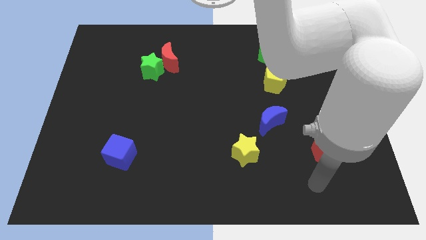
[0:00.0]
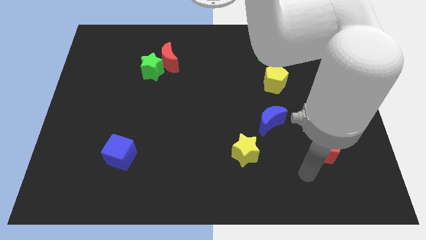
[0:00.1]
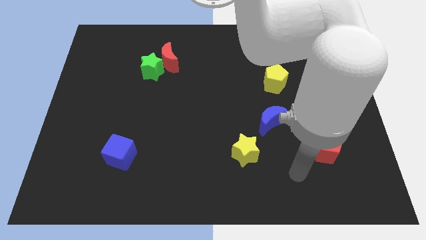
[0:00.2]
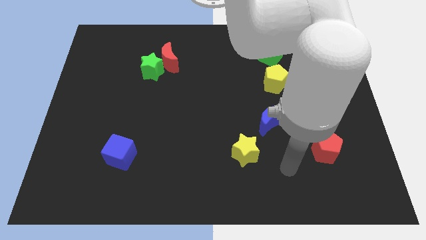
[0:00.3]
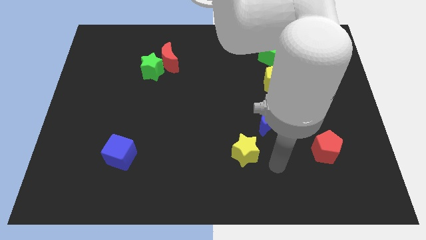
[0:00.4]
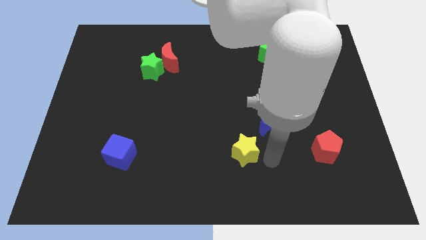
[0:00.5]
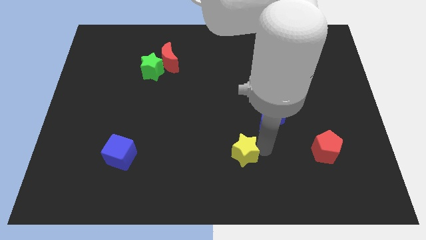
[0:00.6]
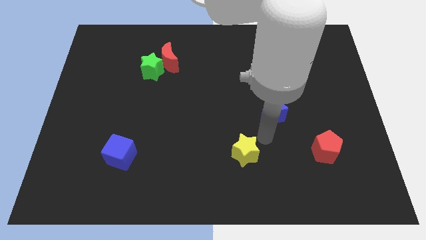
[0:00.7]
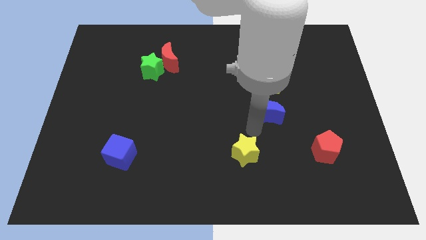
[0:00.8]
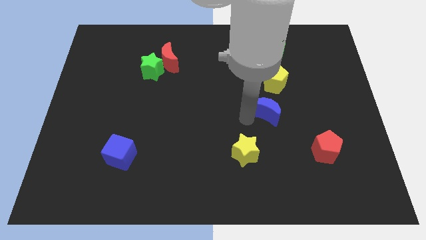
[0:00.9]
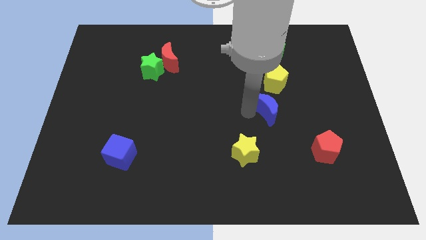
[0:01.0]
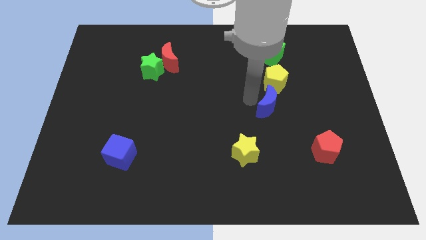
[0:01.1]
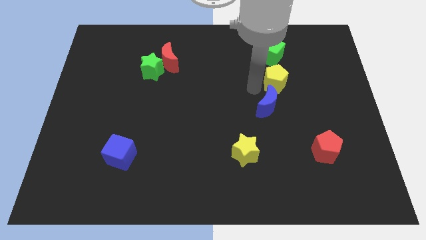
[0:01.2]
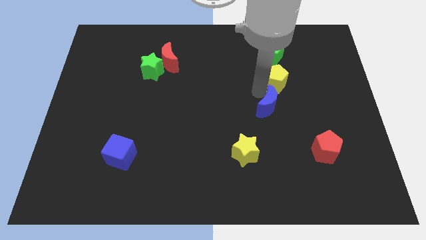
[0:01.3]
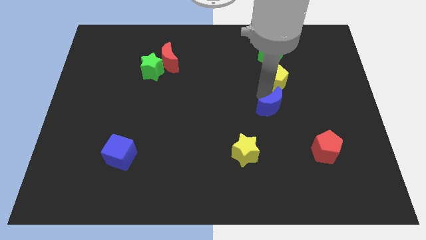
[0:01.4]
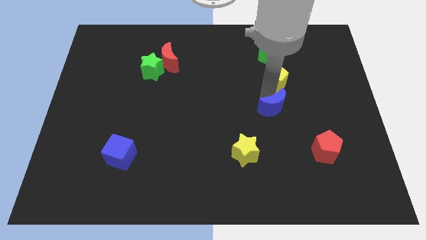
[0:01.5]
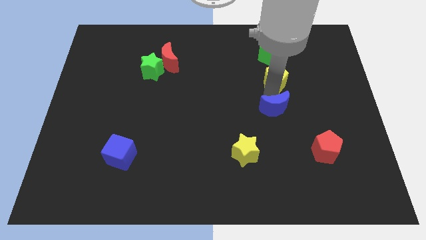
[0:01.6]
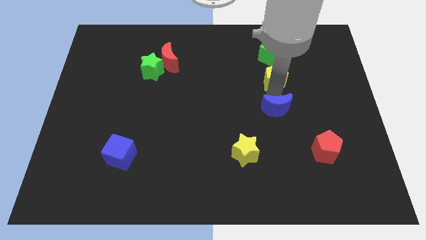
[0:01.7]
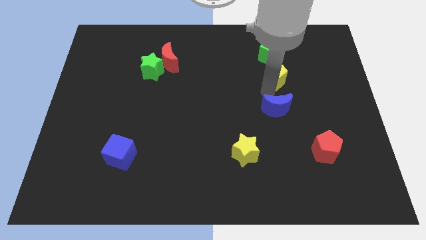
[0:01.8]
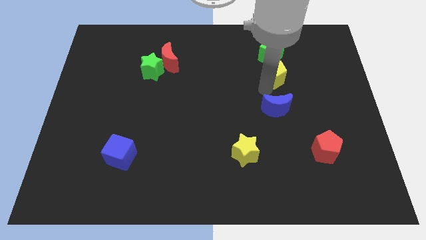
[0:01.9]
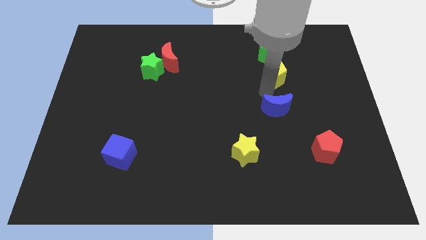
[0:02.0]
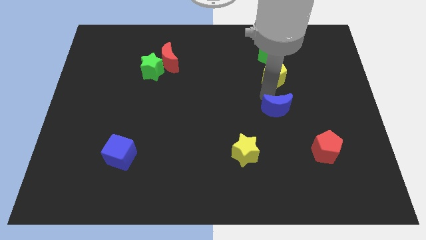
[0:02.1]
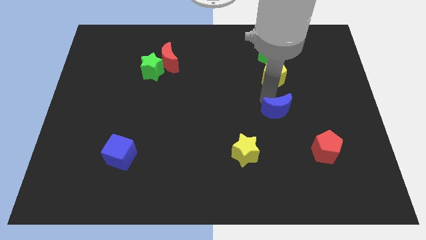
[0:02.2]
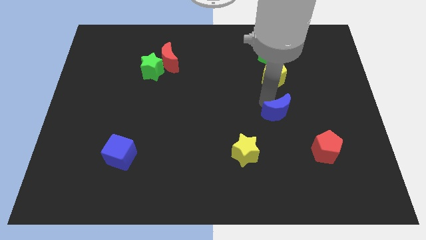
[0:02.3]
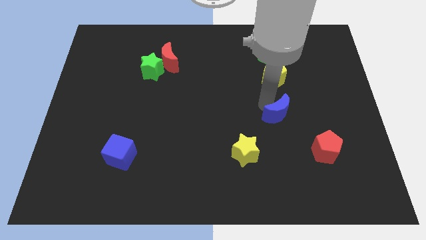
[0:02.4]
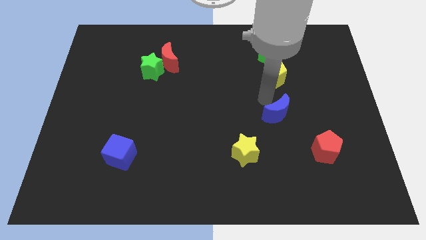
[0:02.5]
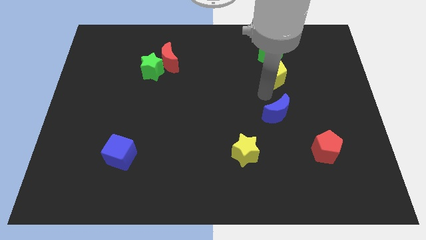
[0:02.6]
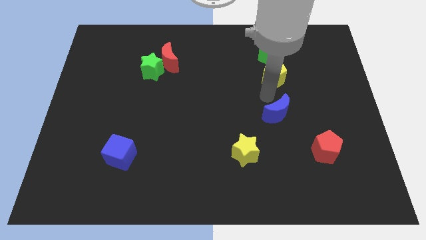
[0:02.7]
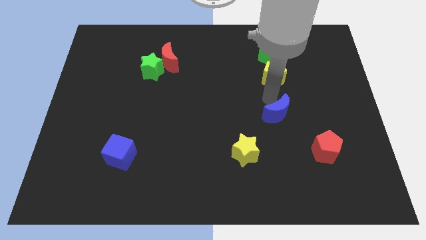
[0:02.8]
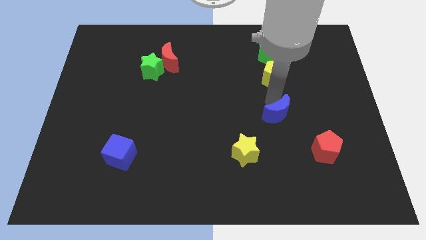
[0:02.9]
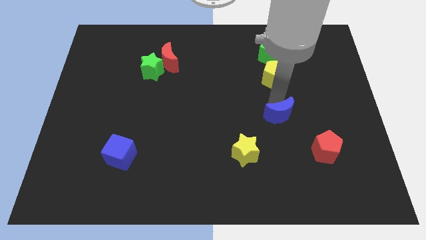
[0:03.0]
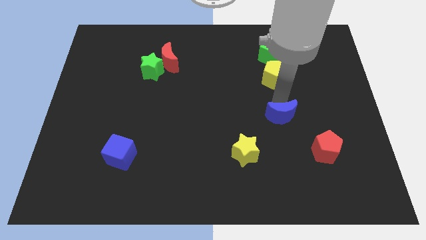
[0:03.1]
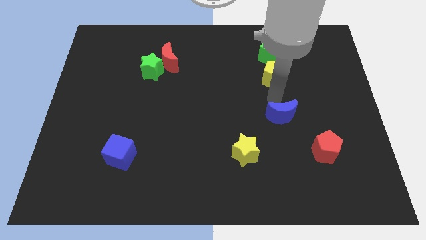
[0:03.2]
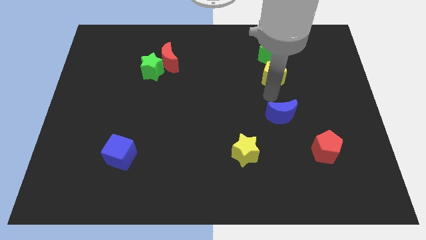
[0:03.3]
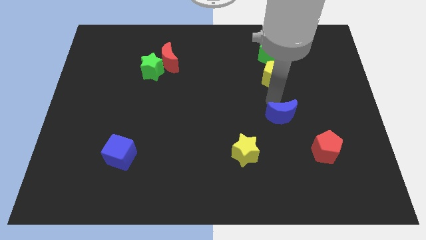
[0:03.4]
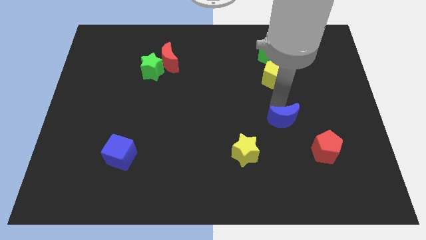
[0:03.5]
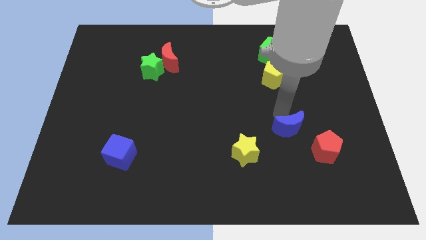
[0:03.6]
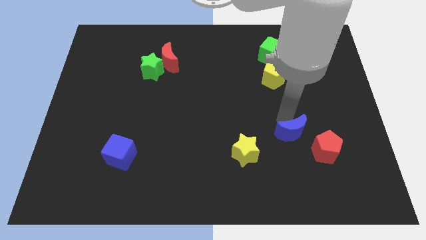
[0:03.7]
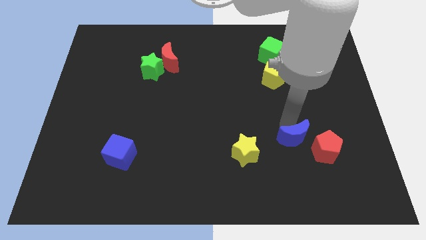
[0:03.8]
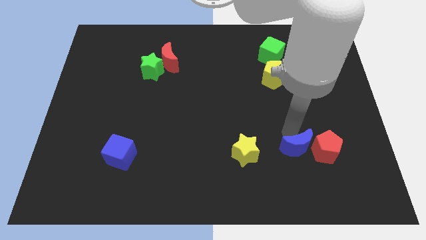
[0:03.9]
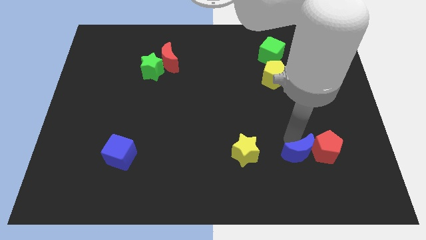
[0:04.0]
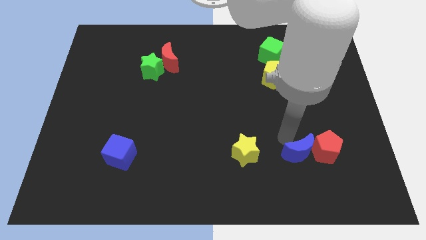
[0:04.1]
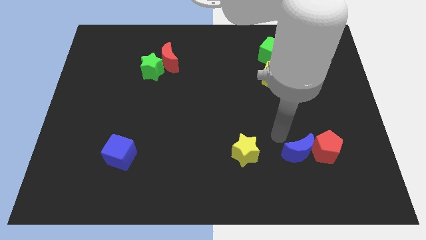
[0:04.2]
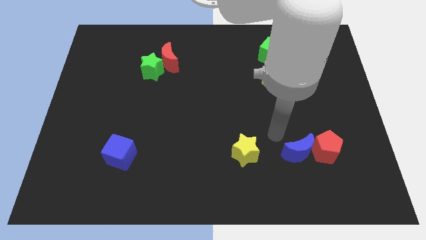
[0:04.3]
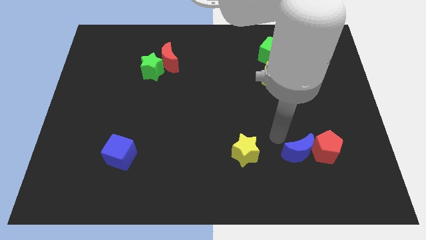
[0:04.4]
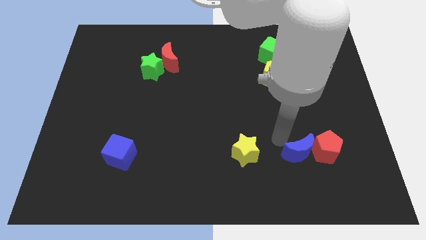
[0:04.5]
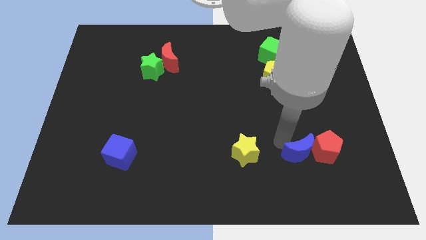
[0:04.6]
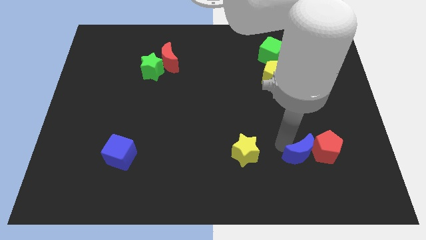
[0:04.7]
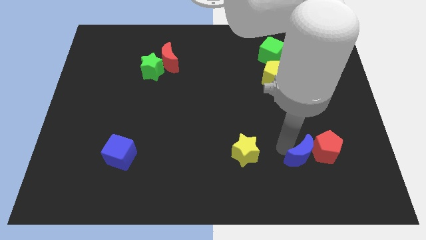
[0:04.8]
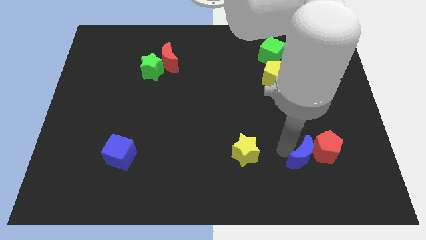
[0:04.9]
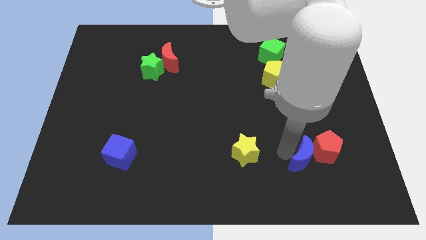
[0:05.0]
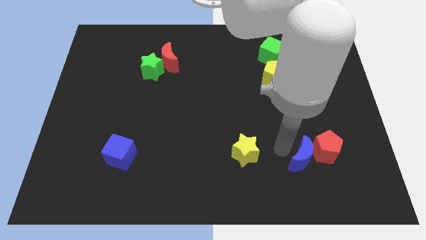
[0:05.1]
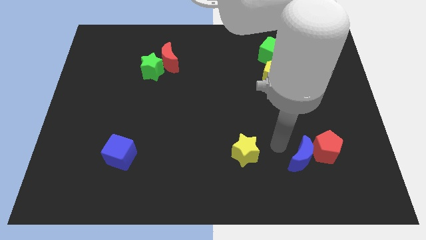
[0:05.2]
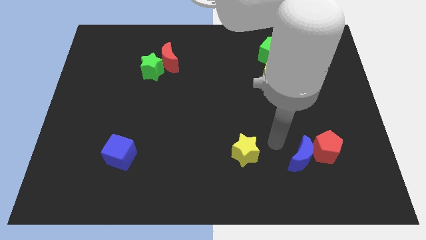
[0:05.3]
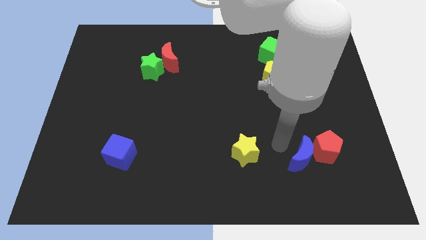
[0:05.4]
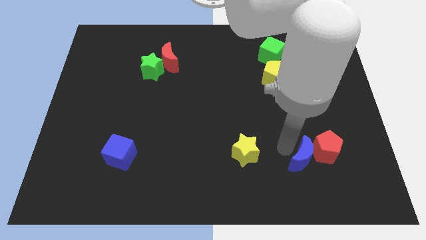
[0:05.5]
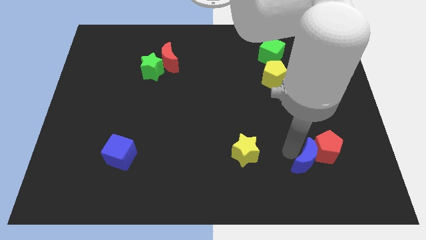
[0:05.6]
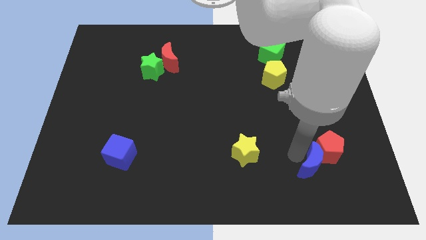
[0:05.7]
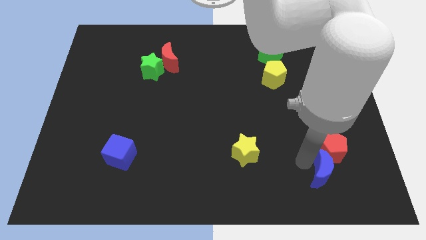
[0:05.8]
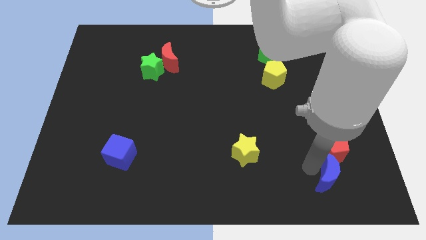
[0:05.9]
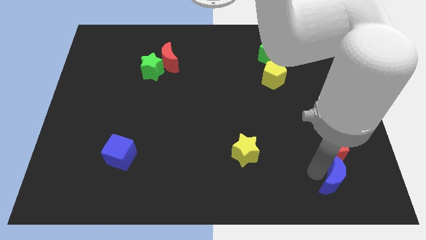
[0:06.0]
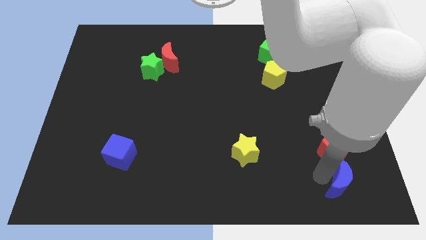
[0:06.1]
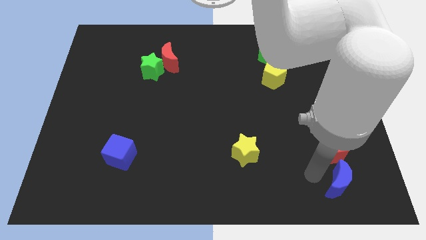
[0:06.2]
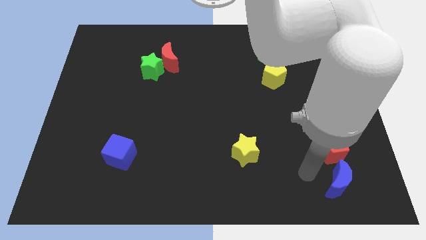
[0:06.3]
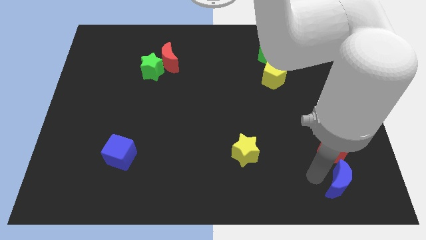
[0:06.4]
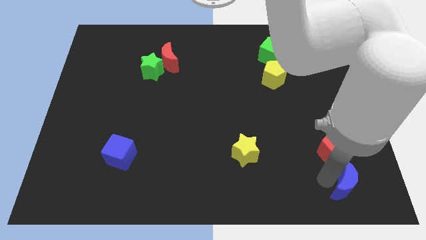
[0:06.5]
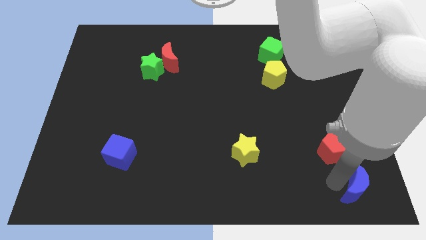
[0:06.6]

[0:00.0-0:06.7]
slide the blue moon to the bottom right

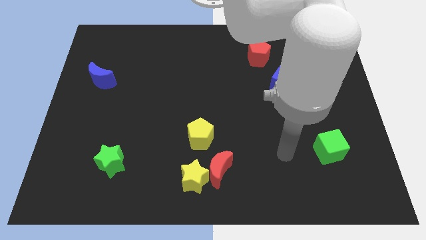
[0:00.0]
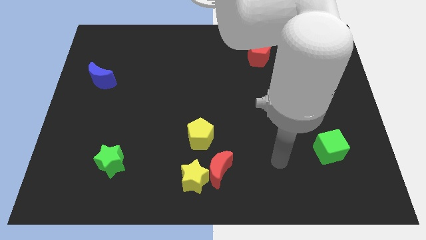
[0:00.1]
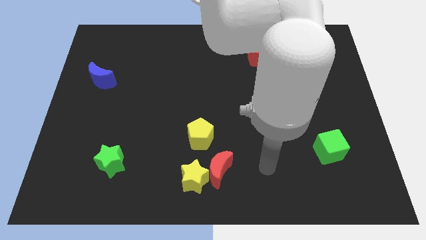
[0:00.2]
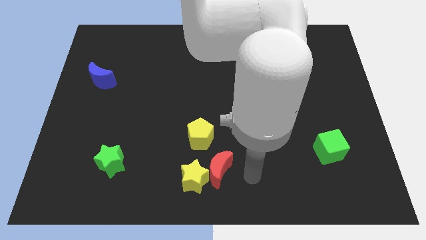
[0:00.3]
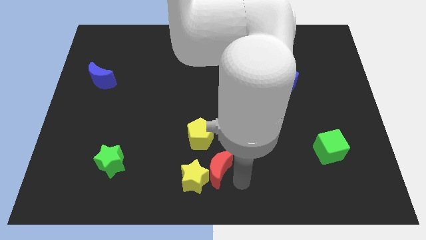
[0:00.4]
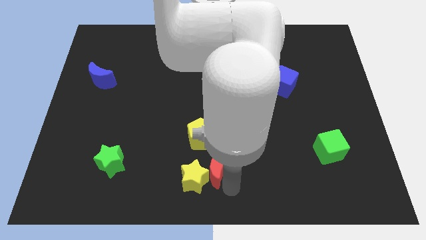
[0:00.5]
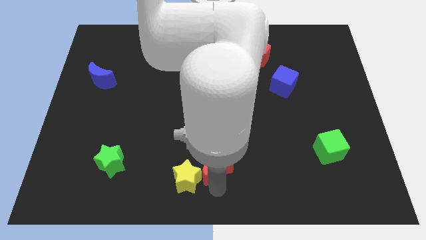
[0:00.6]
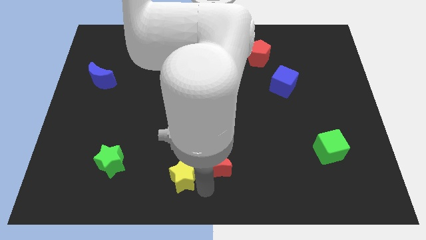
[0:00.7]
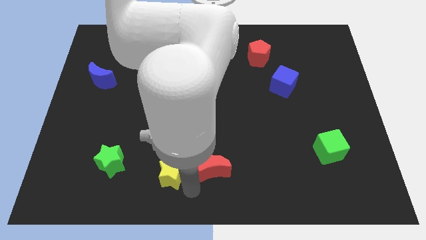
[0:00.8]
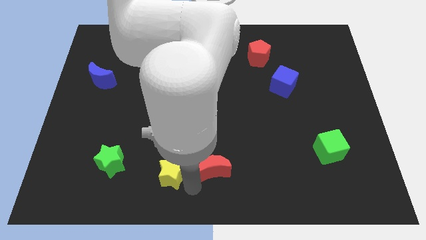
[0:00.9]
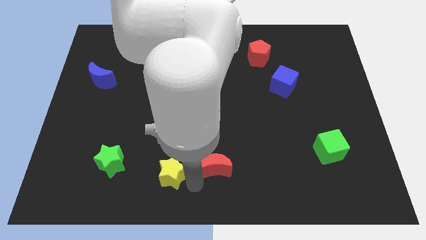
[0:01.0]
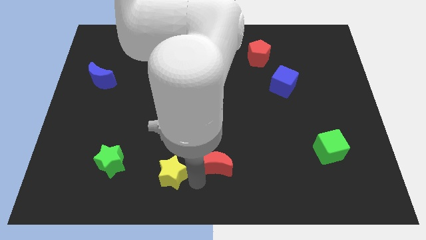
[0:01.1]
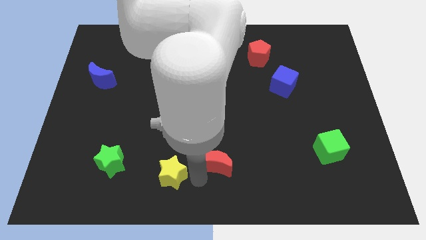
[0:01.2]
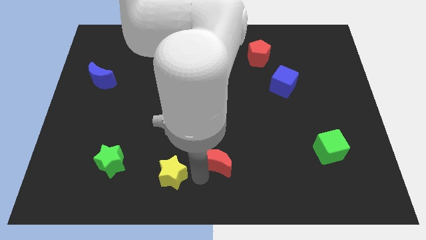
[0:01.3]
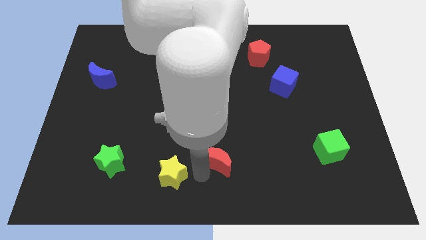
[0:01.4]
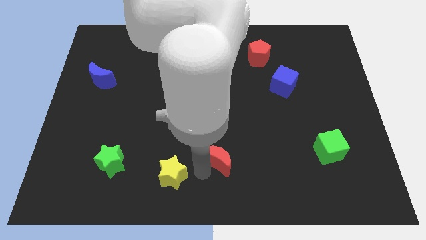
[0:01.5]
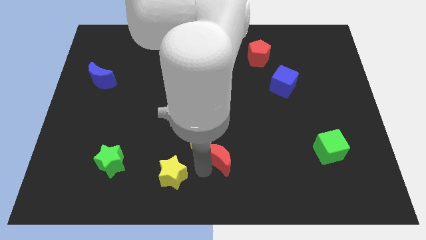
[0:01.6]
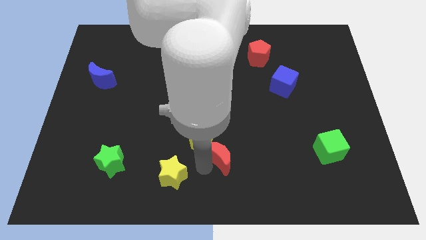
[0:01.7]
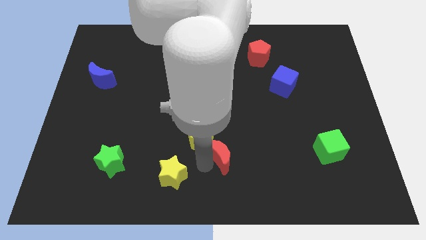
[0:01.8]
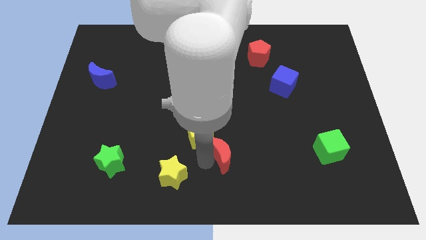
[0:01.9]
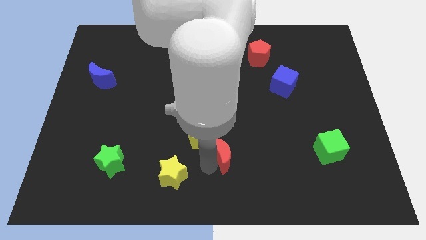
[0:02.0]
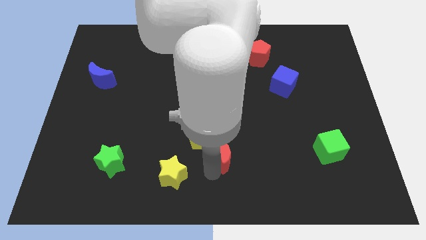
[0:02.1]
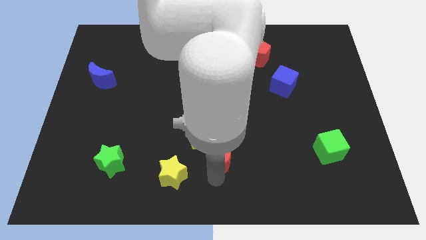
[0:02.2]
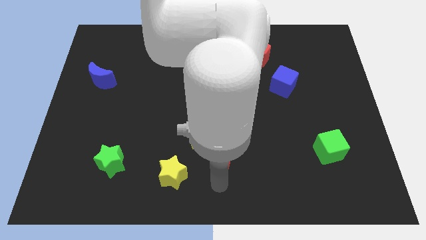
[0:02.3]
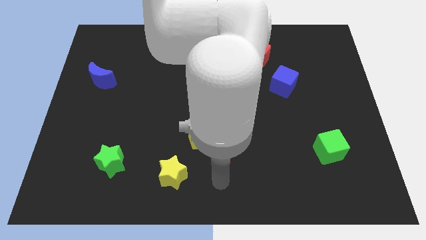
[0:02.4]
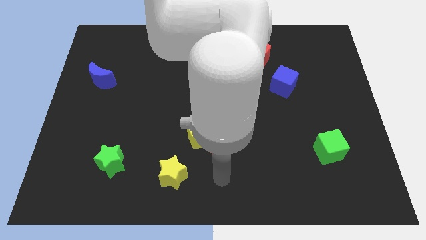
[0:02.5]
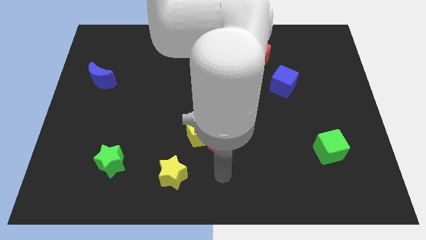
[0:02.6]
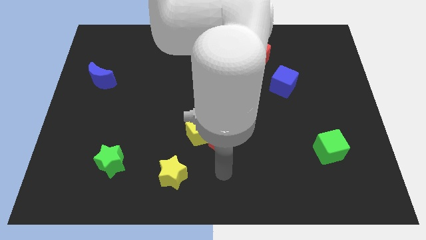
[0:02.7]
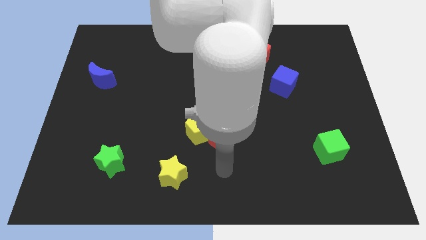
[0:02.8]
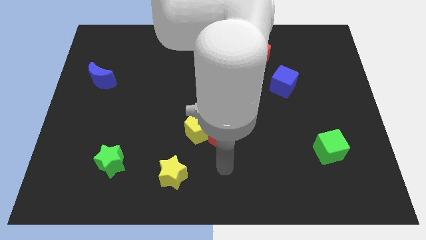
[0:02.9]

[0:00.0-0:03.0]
move the red moon to the center of the board
